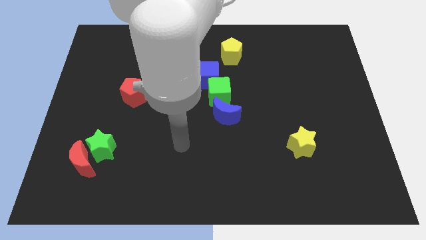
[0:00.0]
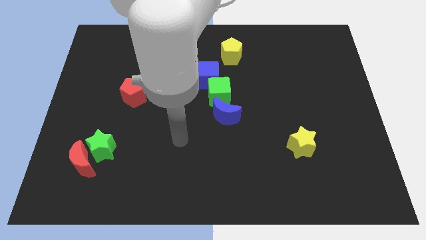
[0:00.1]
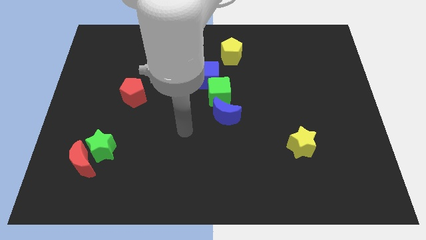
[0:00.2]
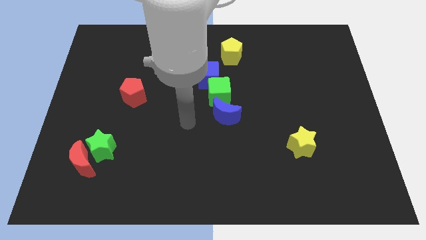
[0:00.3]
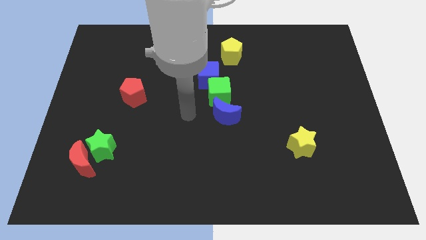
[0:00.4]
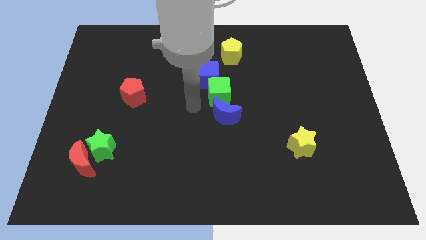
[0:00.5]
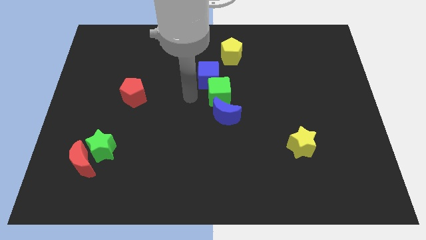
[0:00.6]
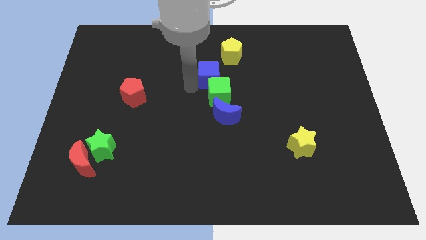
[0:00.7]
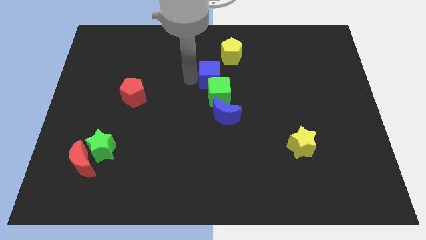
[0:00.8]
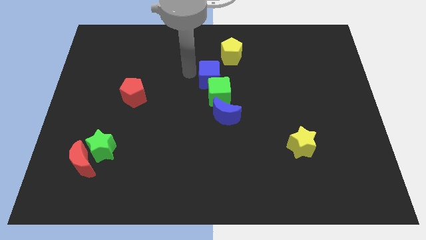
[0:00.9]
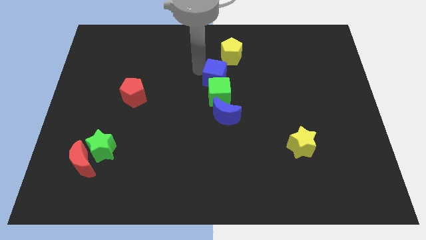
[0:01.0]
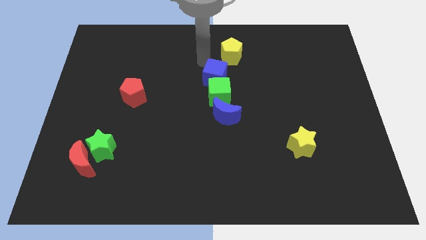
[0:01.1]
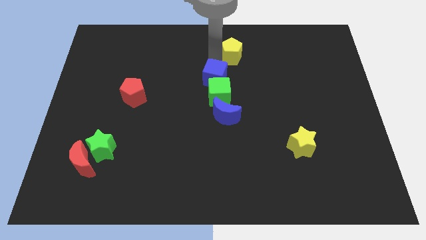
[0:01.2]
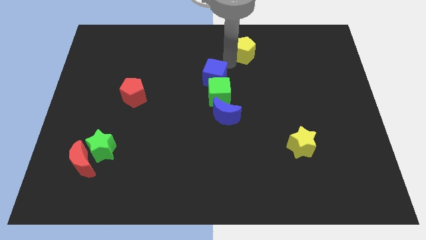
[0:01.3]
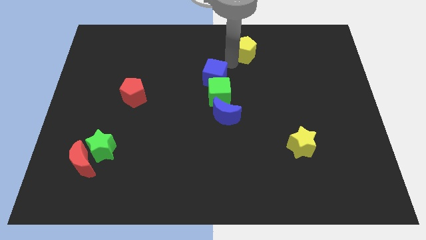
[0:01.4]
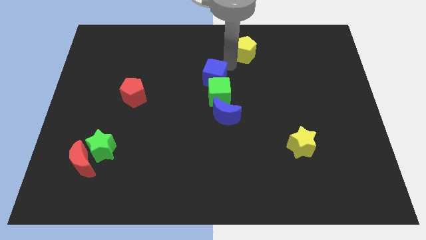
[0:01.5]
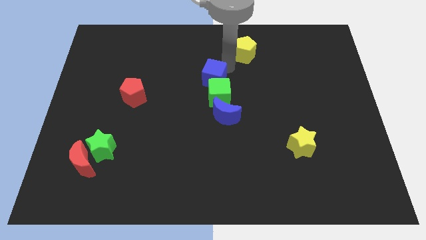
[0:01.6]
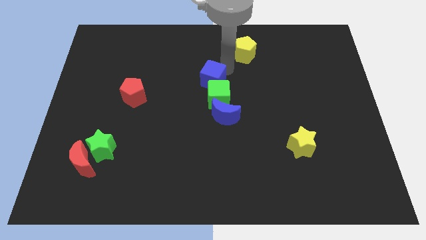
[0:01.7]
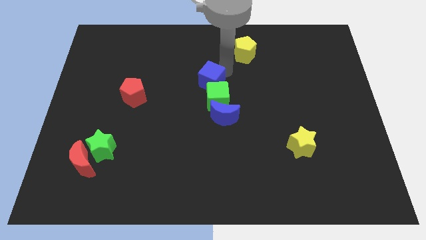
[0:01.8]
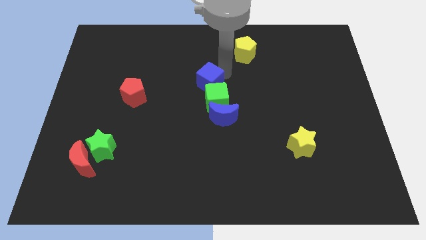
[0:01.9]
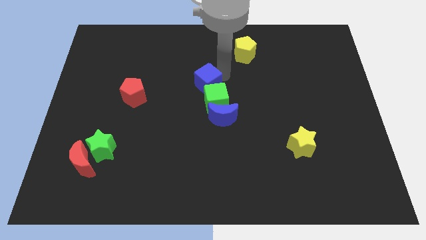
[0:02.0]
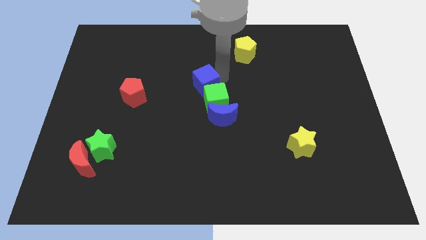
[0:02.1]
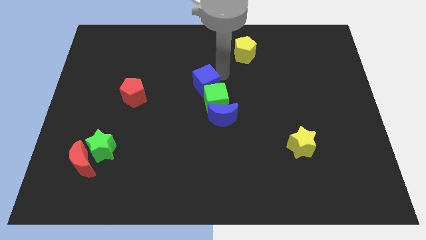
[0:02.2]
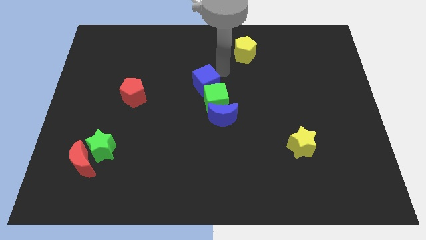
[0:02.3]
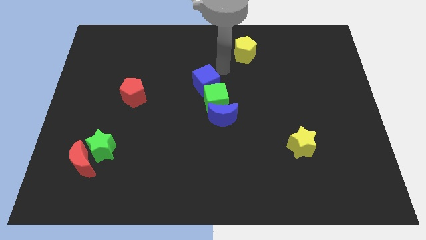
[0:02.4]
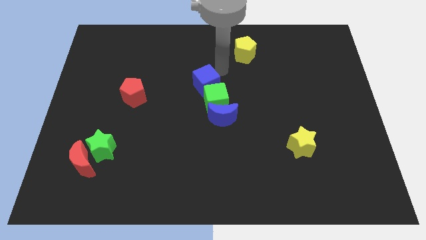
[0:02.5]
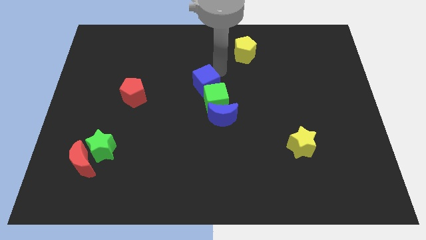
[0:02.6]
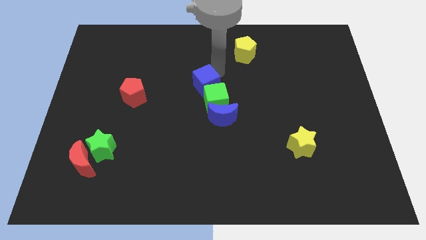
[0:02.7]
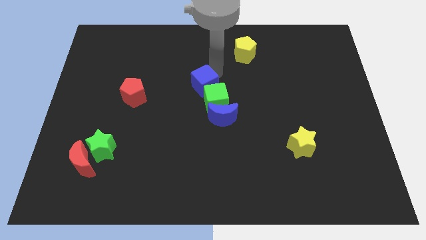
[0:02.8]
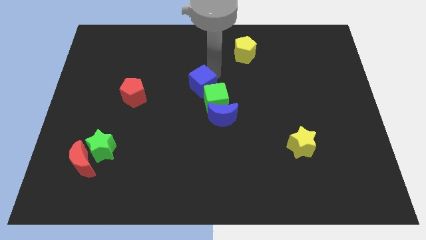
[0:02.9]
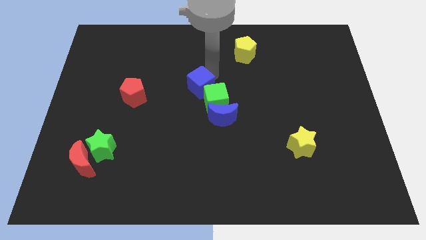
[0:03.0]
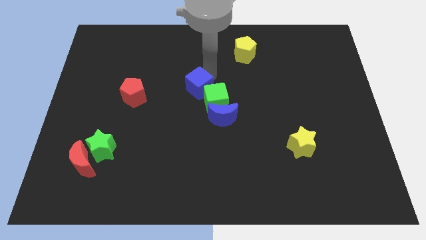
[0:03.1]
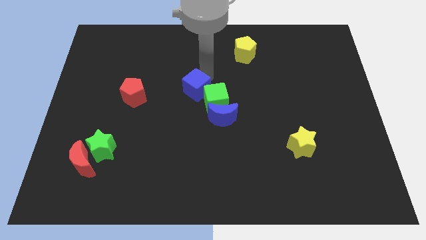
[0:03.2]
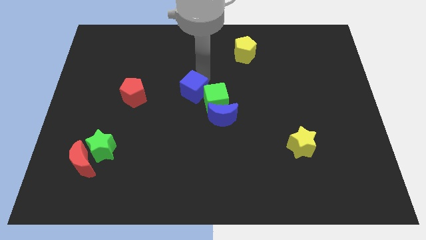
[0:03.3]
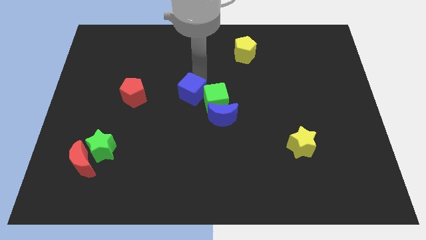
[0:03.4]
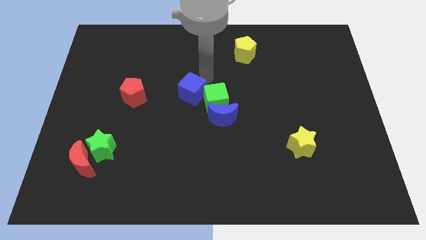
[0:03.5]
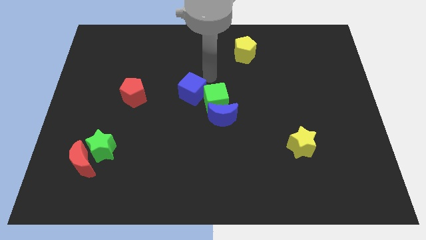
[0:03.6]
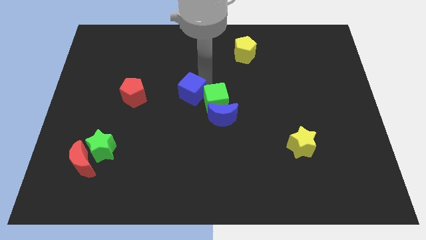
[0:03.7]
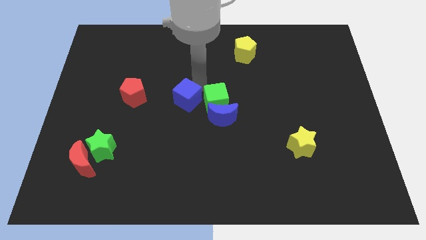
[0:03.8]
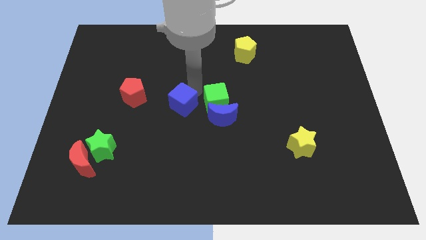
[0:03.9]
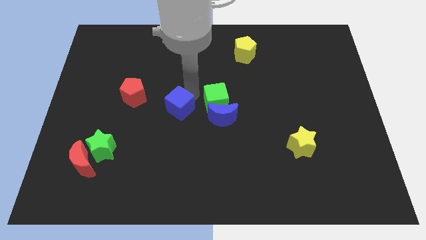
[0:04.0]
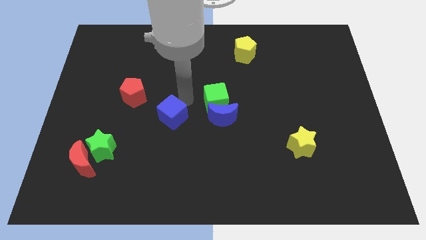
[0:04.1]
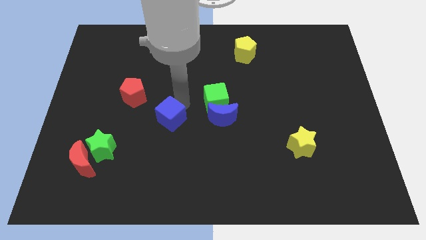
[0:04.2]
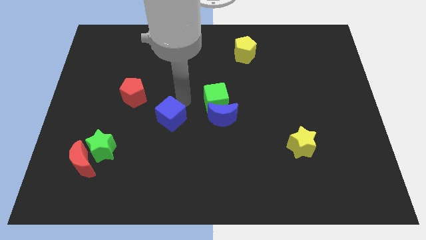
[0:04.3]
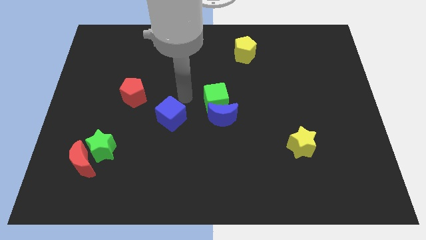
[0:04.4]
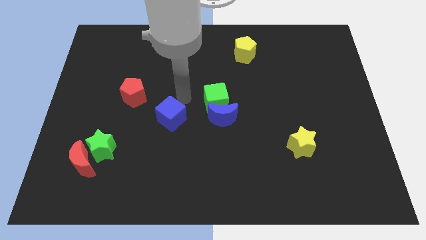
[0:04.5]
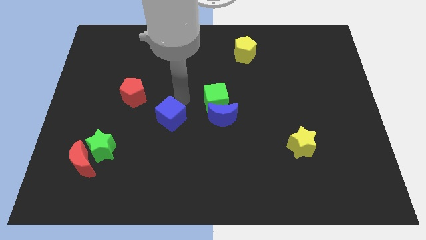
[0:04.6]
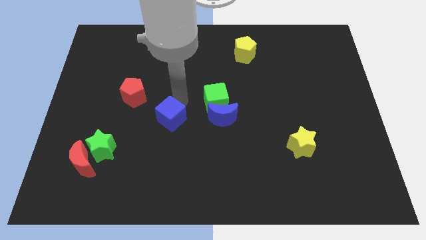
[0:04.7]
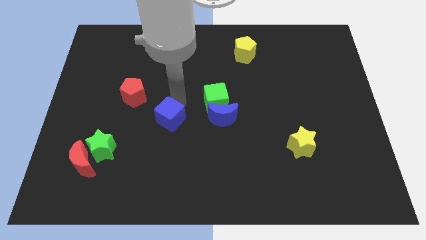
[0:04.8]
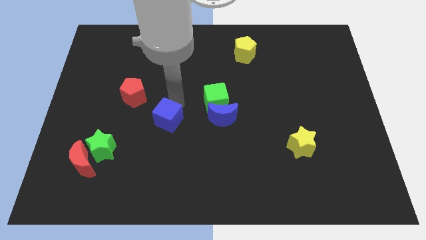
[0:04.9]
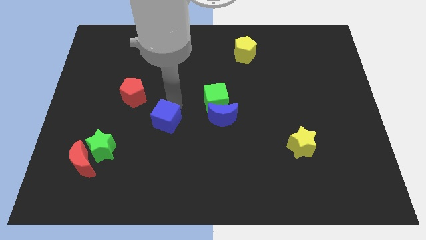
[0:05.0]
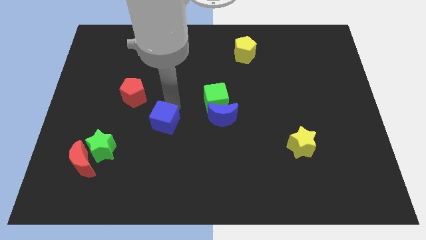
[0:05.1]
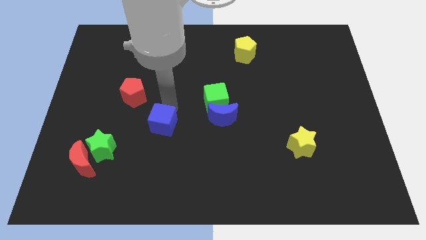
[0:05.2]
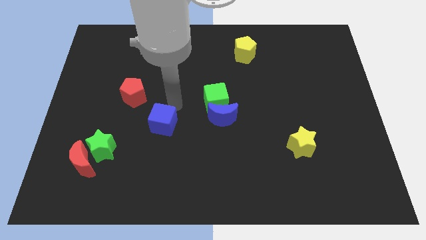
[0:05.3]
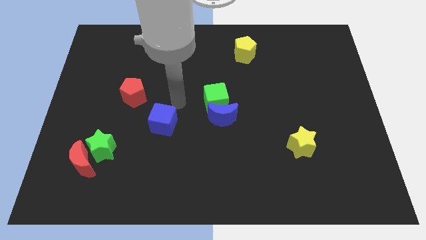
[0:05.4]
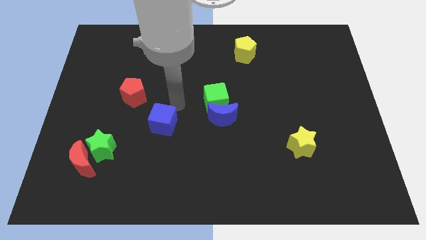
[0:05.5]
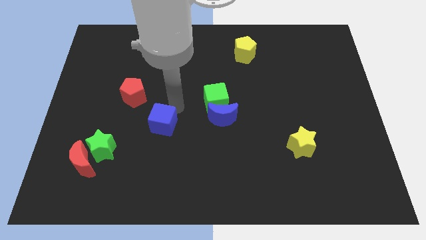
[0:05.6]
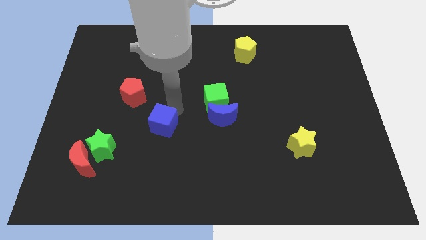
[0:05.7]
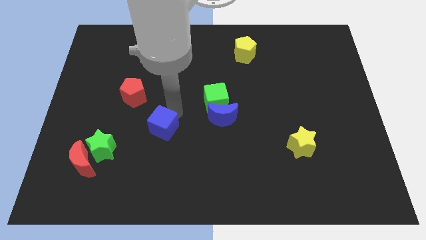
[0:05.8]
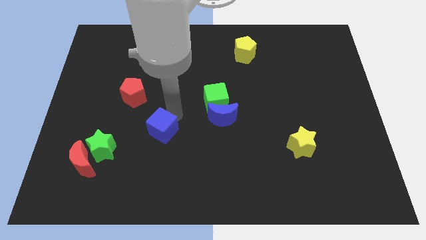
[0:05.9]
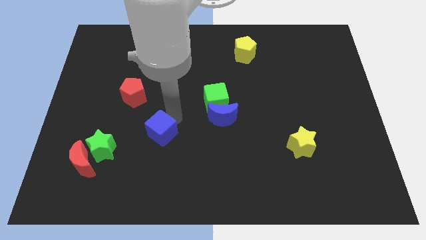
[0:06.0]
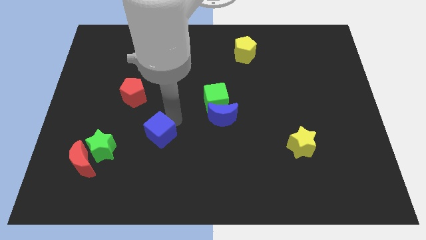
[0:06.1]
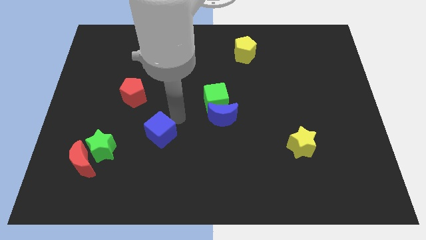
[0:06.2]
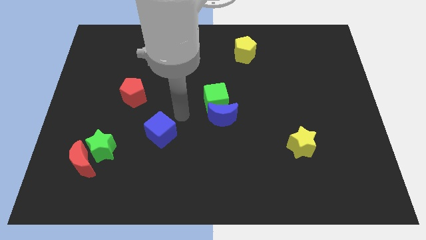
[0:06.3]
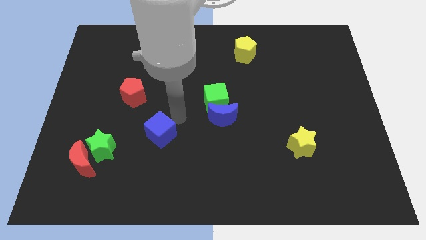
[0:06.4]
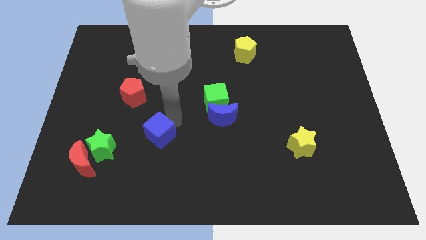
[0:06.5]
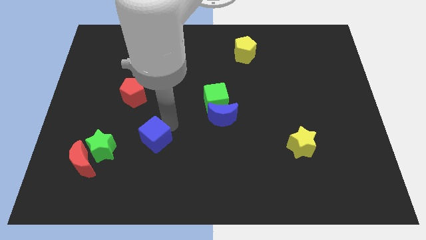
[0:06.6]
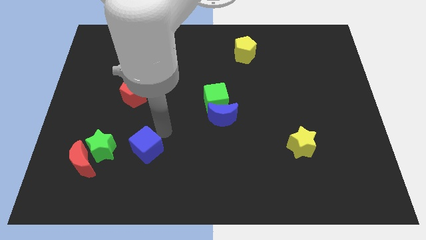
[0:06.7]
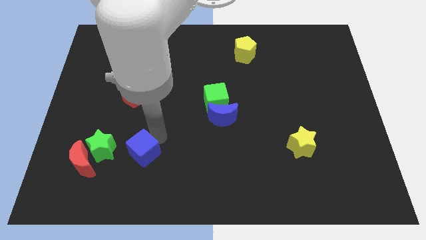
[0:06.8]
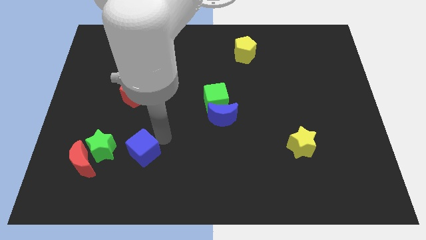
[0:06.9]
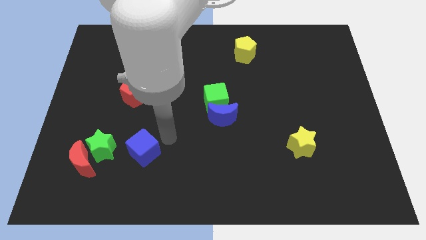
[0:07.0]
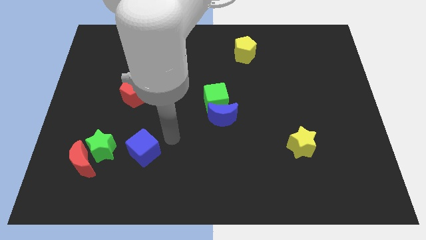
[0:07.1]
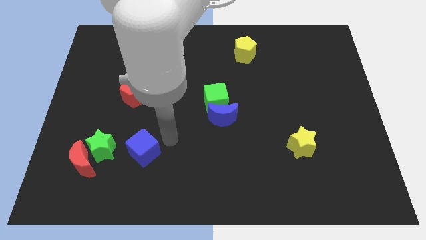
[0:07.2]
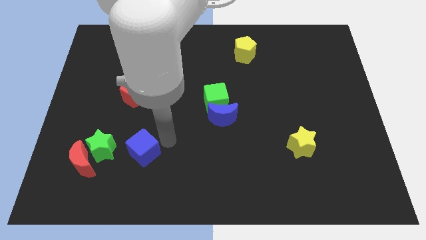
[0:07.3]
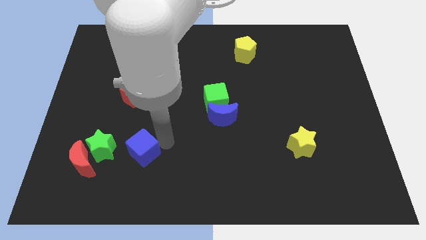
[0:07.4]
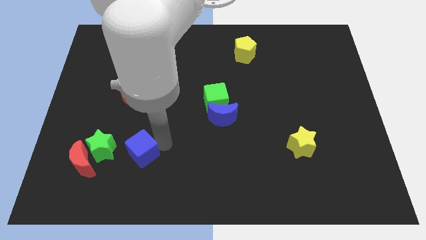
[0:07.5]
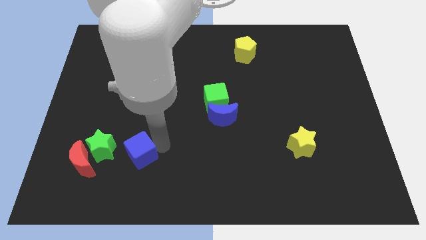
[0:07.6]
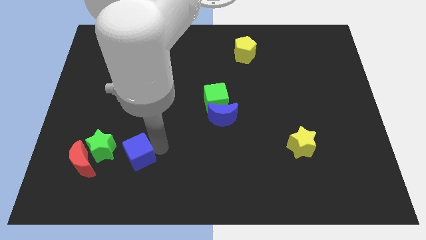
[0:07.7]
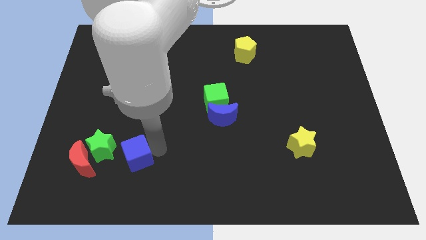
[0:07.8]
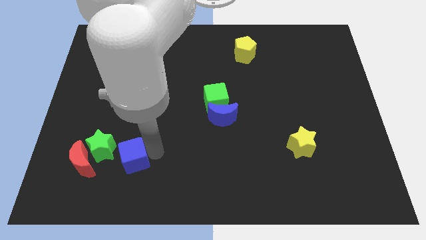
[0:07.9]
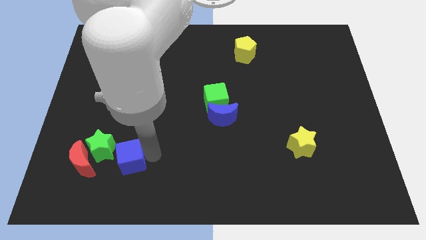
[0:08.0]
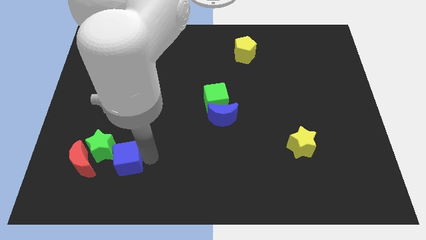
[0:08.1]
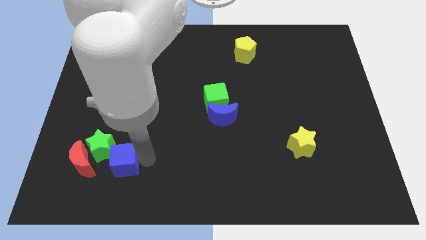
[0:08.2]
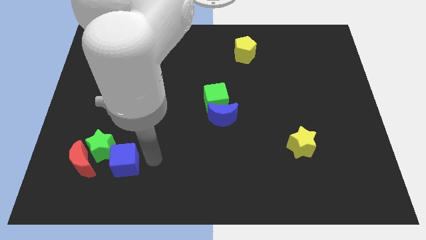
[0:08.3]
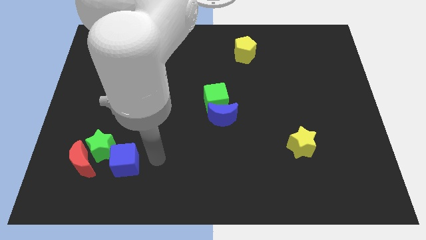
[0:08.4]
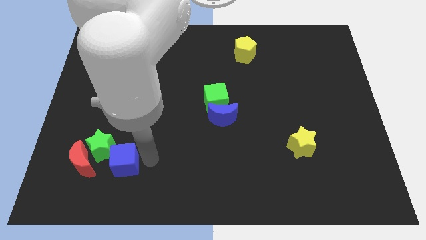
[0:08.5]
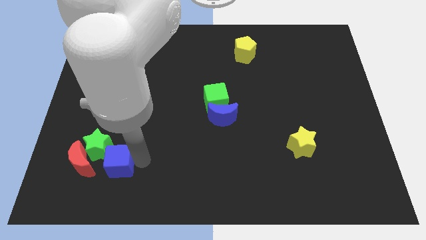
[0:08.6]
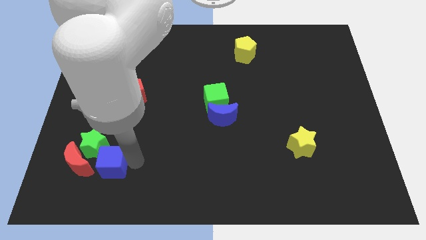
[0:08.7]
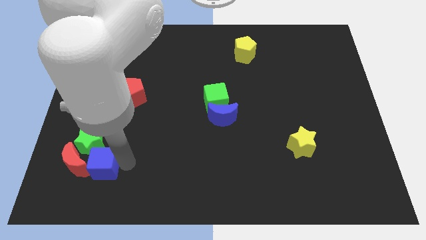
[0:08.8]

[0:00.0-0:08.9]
put the blue cube close to the red moon
